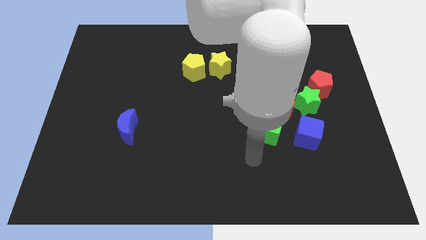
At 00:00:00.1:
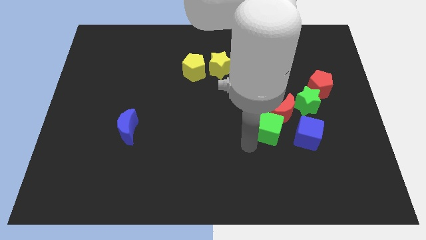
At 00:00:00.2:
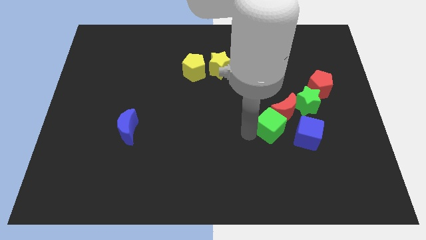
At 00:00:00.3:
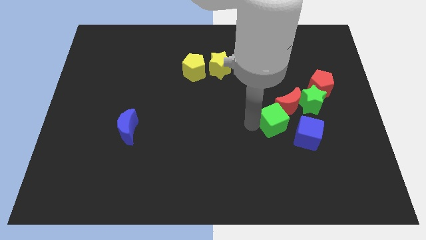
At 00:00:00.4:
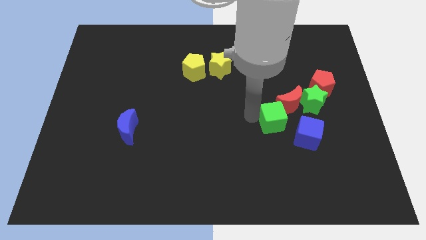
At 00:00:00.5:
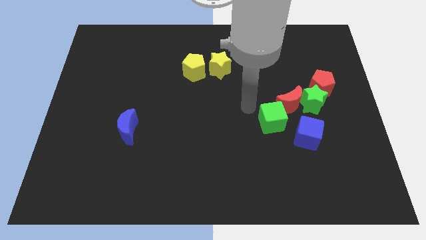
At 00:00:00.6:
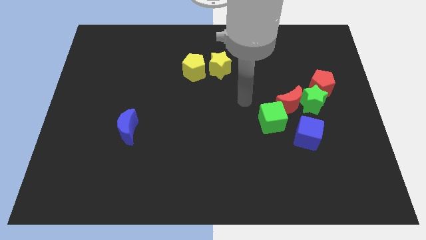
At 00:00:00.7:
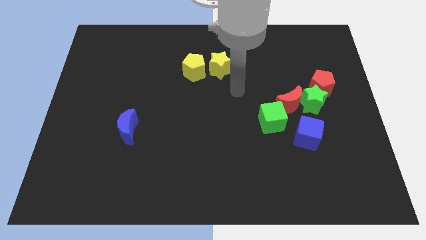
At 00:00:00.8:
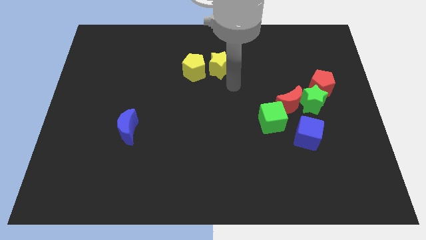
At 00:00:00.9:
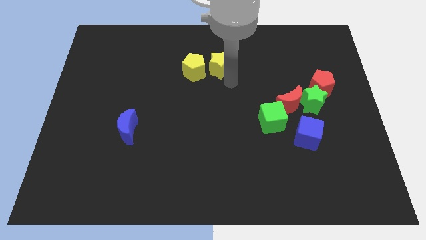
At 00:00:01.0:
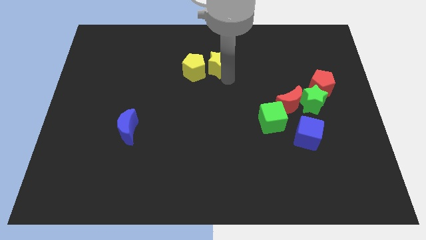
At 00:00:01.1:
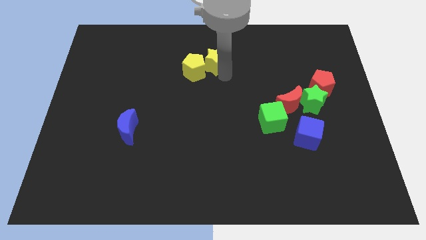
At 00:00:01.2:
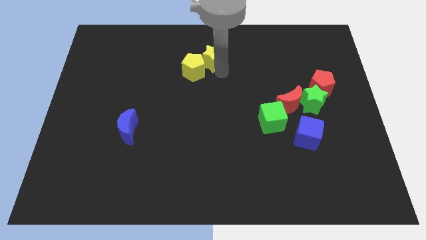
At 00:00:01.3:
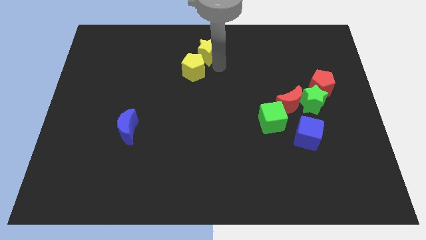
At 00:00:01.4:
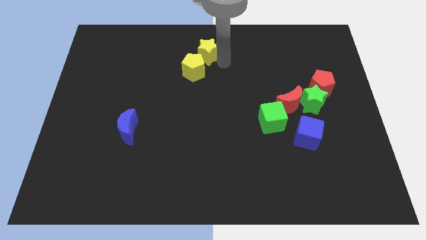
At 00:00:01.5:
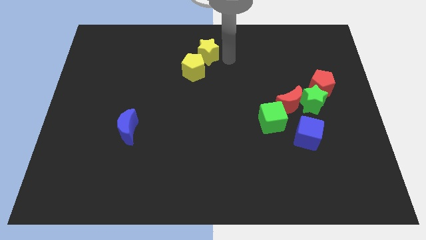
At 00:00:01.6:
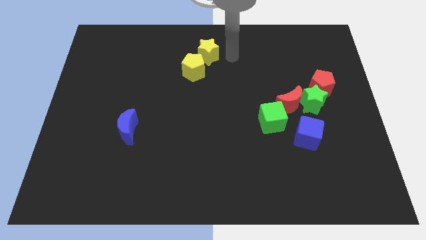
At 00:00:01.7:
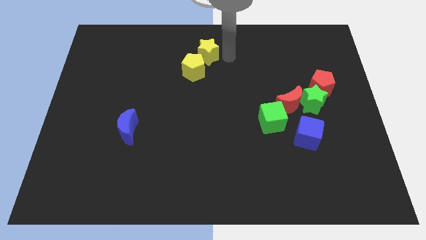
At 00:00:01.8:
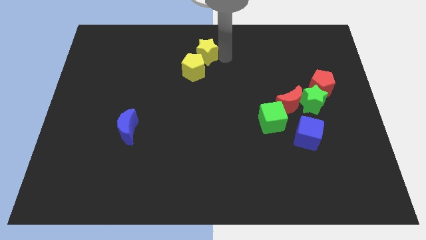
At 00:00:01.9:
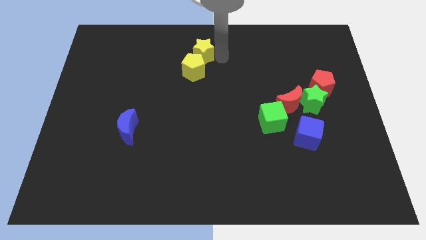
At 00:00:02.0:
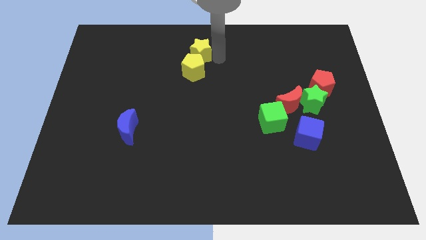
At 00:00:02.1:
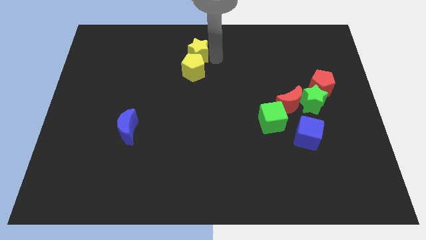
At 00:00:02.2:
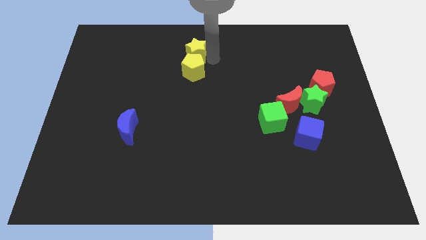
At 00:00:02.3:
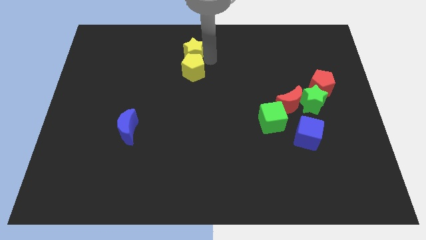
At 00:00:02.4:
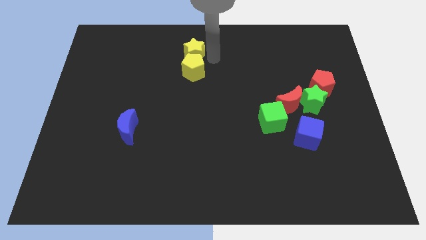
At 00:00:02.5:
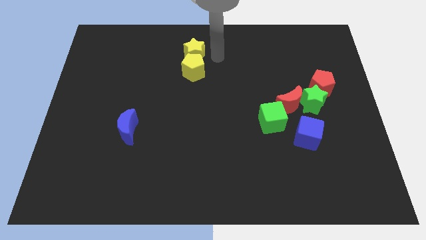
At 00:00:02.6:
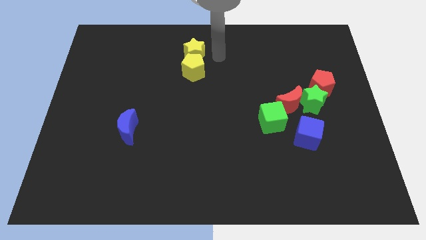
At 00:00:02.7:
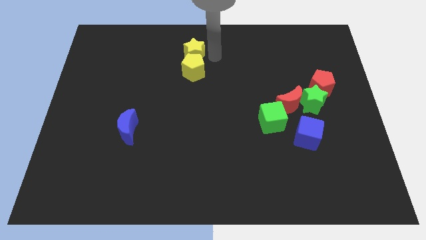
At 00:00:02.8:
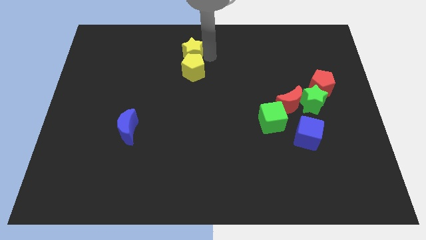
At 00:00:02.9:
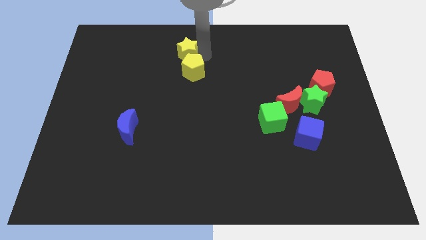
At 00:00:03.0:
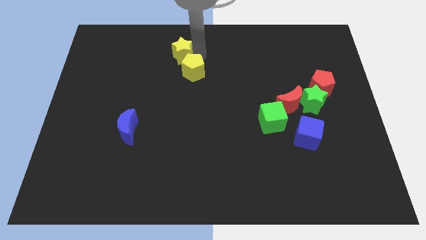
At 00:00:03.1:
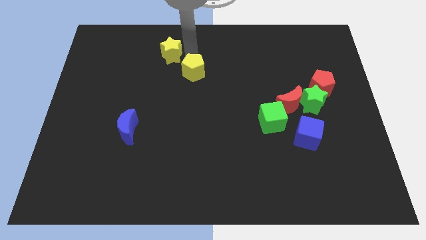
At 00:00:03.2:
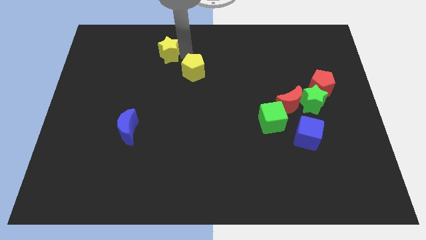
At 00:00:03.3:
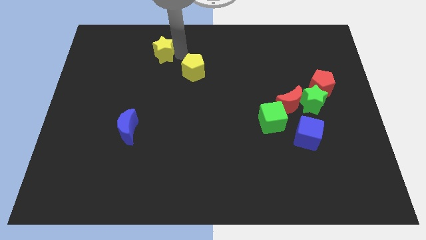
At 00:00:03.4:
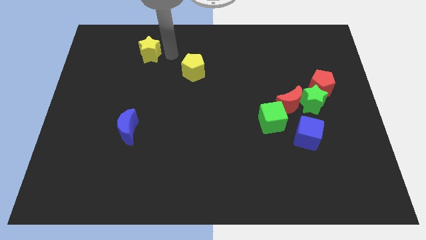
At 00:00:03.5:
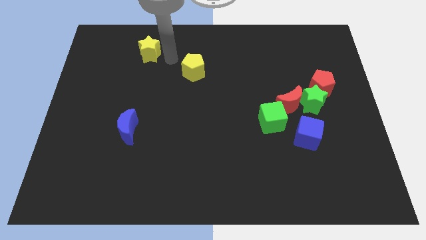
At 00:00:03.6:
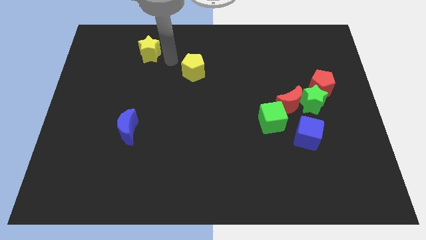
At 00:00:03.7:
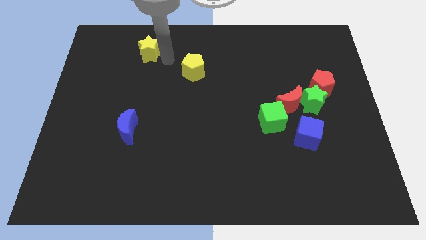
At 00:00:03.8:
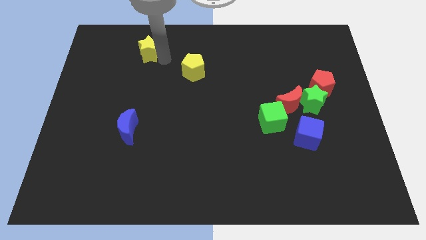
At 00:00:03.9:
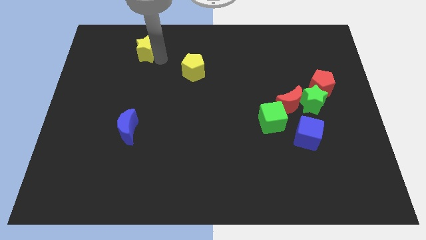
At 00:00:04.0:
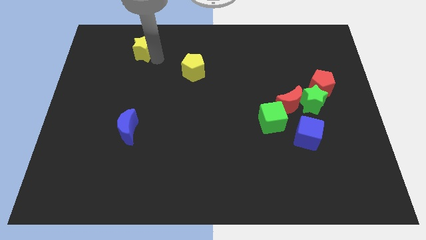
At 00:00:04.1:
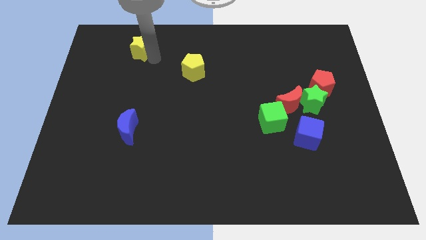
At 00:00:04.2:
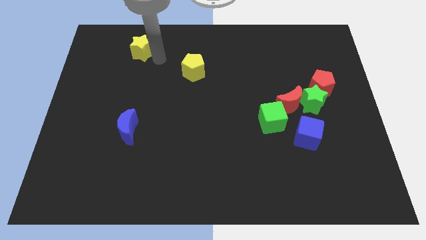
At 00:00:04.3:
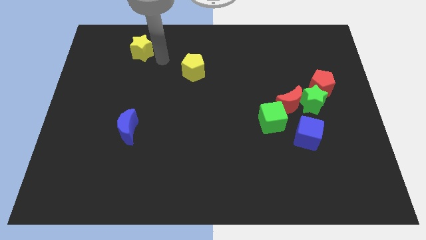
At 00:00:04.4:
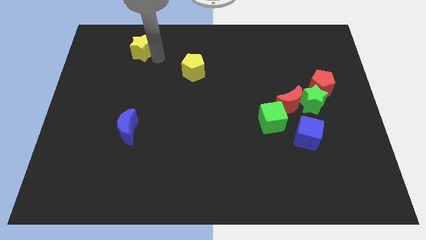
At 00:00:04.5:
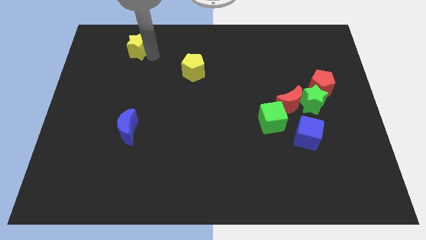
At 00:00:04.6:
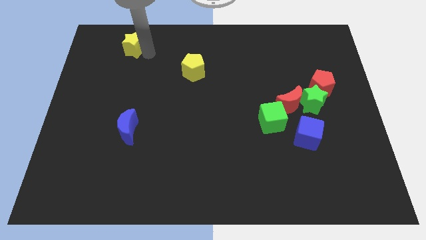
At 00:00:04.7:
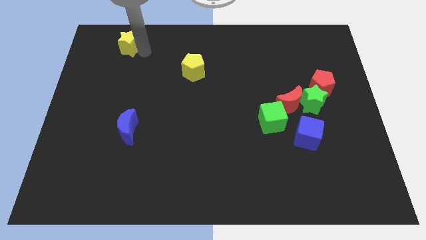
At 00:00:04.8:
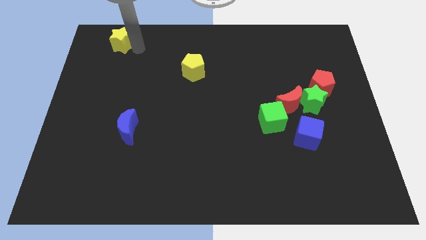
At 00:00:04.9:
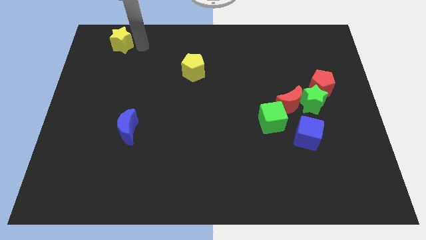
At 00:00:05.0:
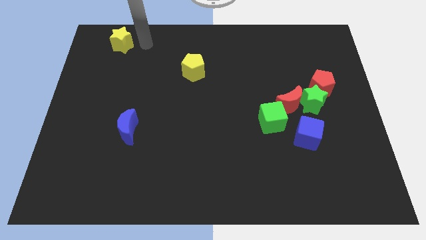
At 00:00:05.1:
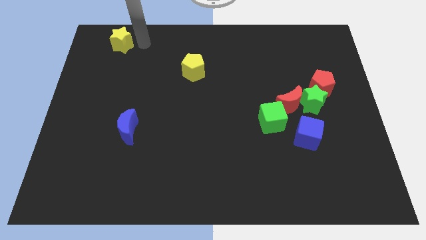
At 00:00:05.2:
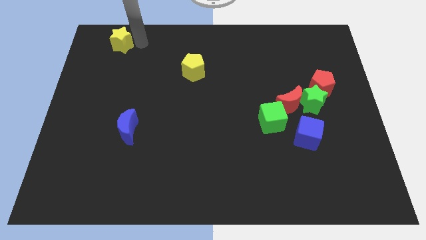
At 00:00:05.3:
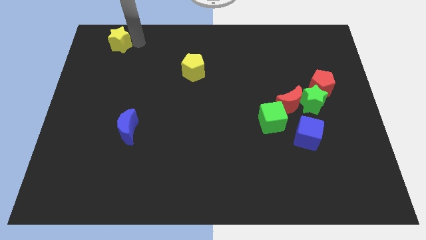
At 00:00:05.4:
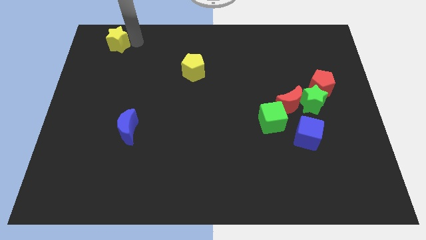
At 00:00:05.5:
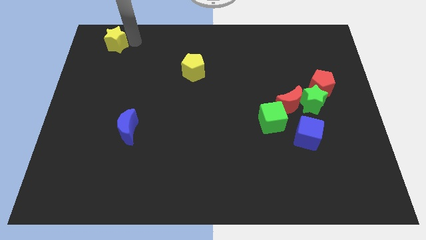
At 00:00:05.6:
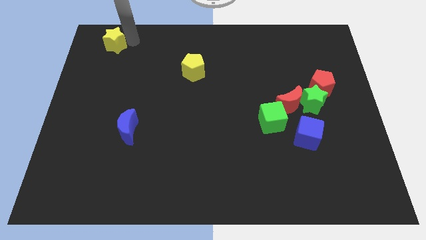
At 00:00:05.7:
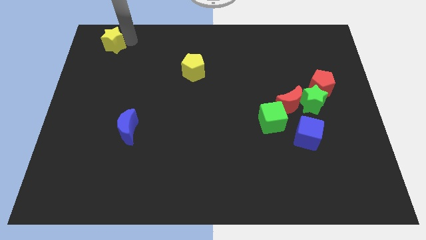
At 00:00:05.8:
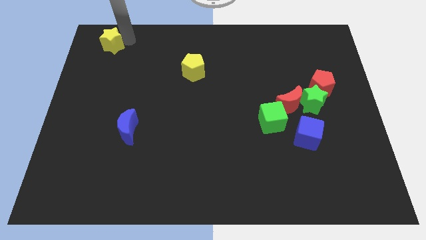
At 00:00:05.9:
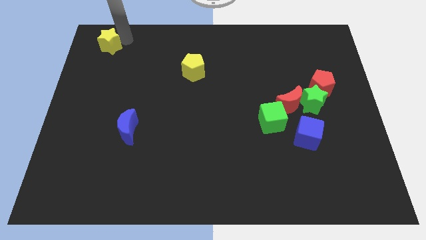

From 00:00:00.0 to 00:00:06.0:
slide the yellow star to the top left
